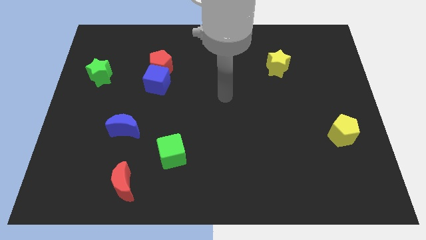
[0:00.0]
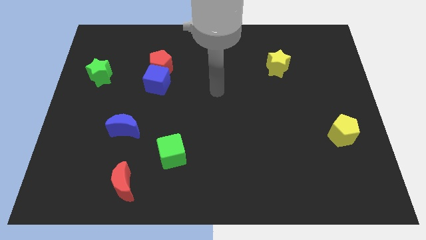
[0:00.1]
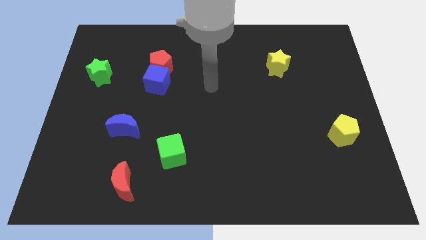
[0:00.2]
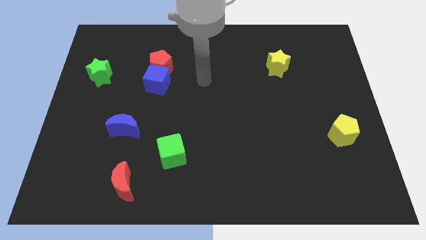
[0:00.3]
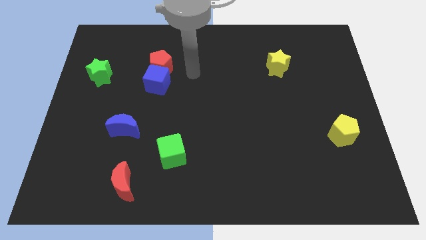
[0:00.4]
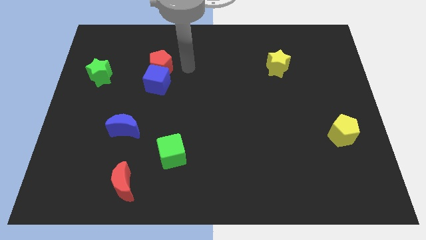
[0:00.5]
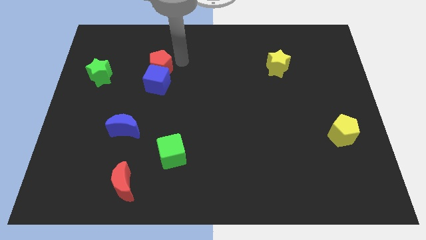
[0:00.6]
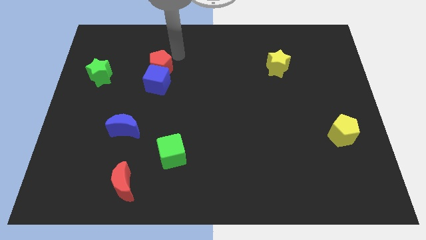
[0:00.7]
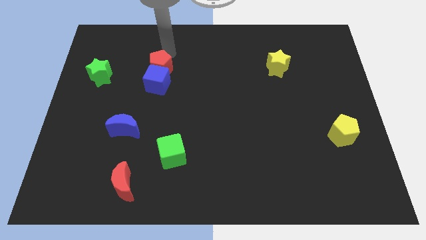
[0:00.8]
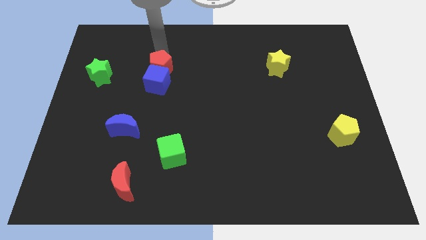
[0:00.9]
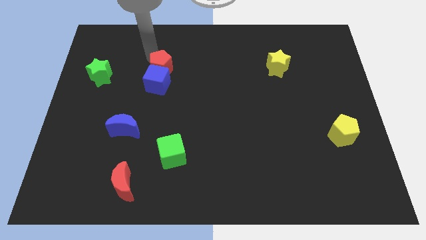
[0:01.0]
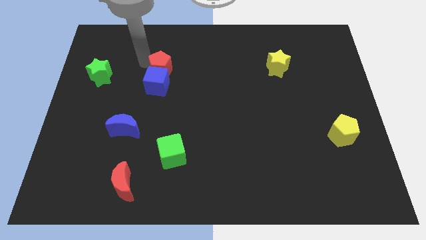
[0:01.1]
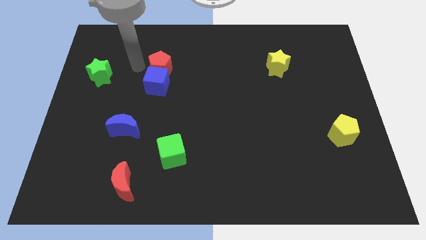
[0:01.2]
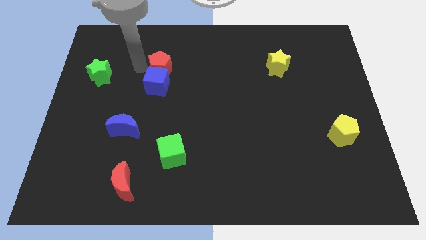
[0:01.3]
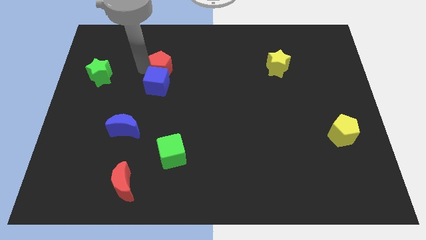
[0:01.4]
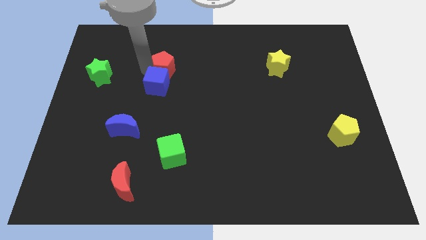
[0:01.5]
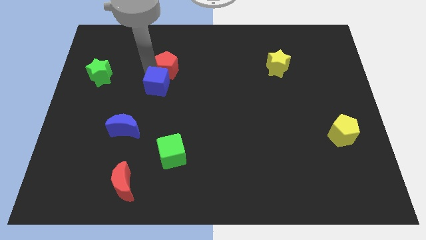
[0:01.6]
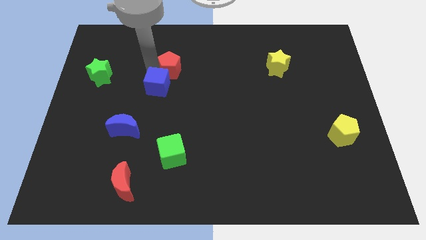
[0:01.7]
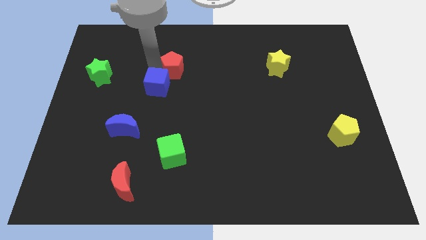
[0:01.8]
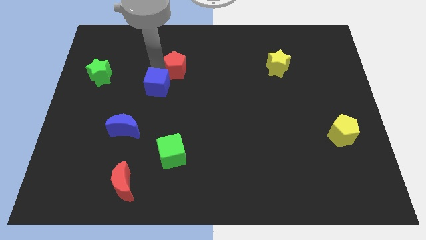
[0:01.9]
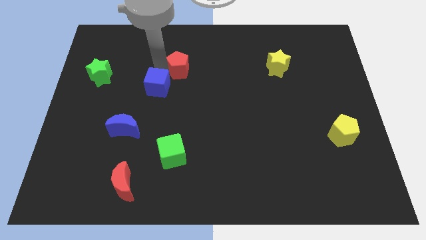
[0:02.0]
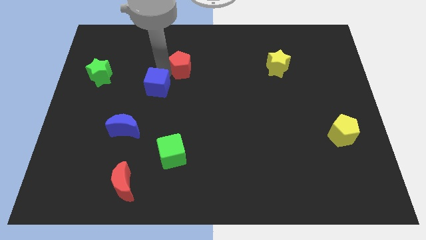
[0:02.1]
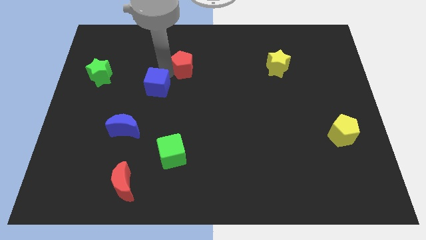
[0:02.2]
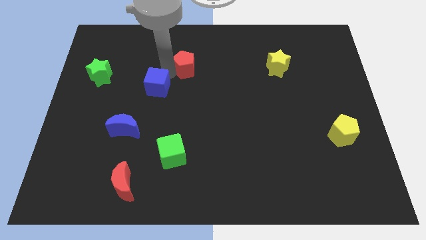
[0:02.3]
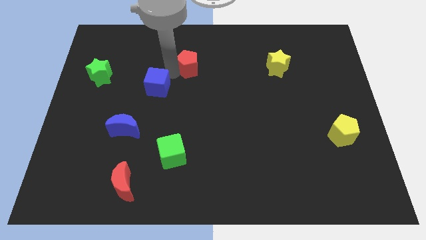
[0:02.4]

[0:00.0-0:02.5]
slightly move the red pentagon to the right

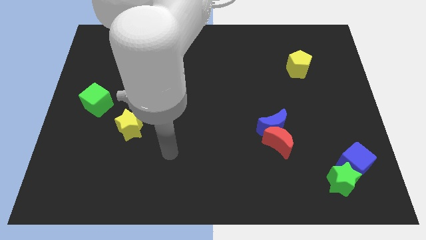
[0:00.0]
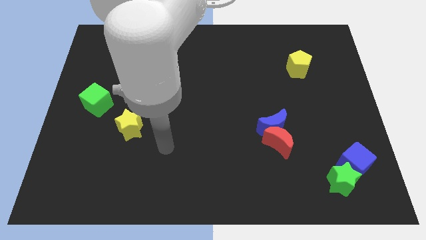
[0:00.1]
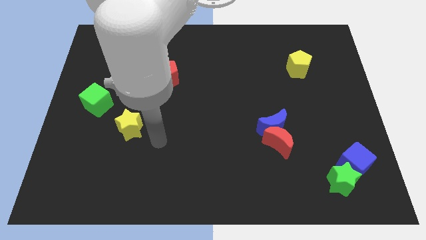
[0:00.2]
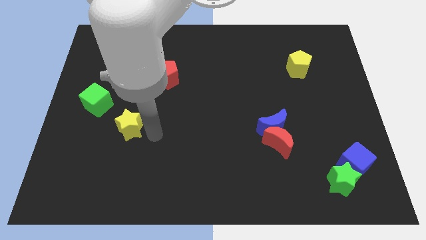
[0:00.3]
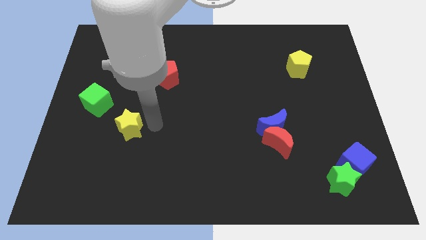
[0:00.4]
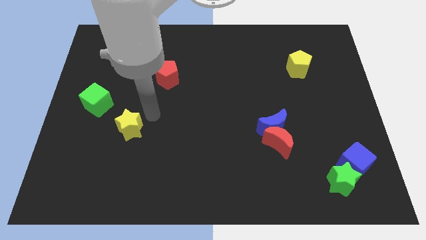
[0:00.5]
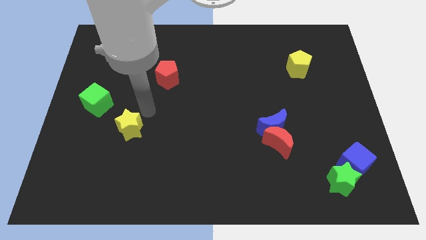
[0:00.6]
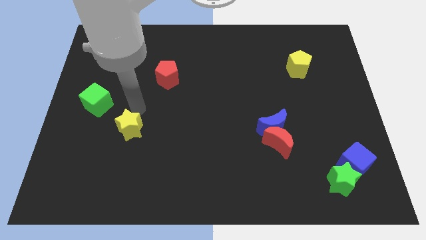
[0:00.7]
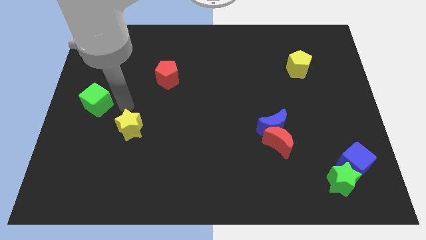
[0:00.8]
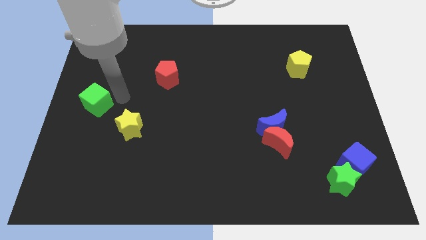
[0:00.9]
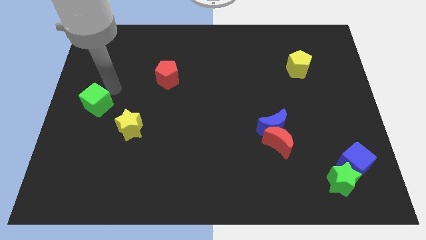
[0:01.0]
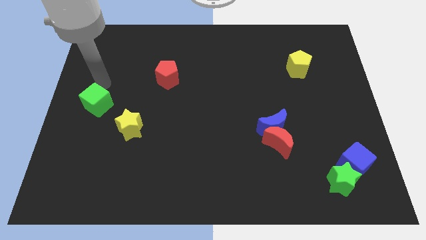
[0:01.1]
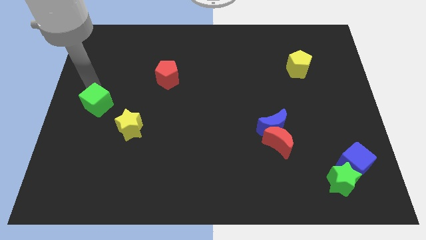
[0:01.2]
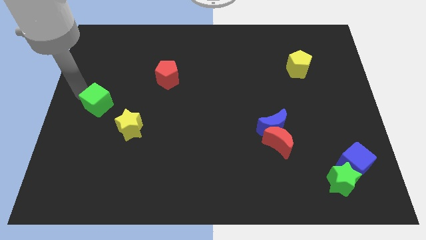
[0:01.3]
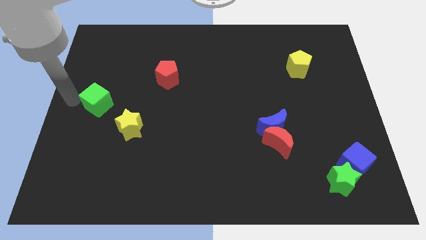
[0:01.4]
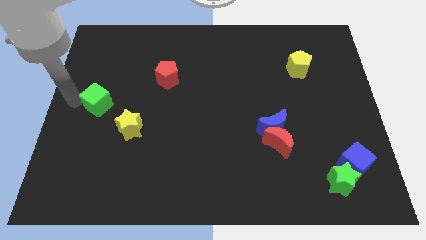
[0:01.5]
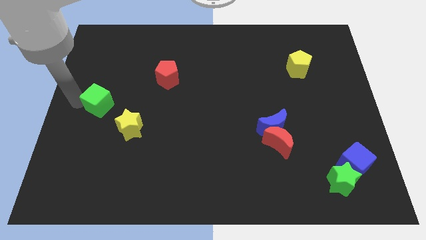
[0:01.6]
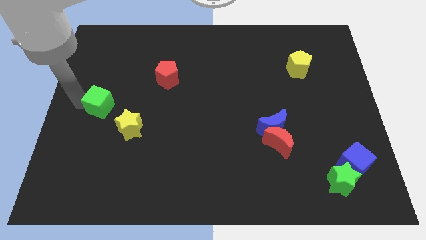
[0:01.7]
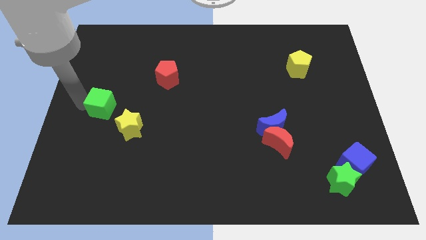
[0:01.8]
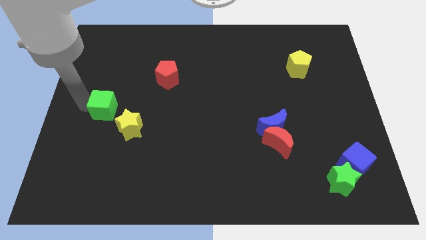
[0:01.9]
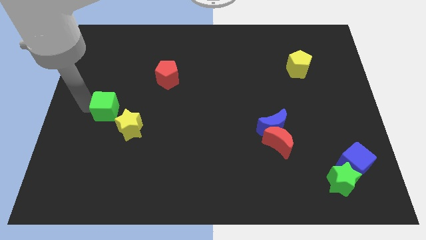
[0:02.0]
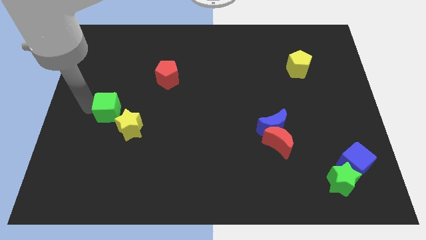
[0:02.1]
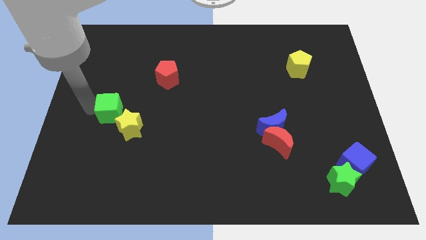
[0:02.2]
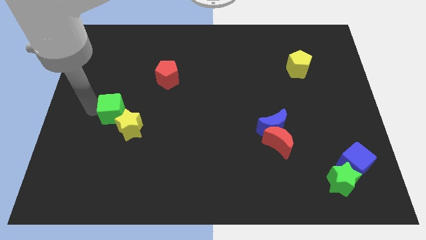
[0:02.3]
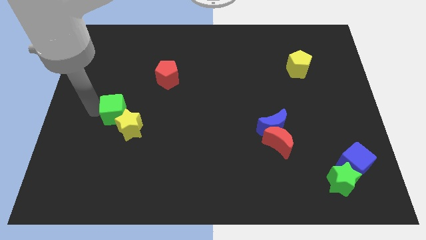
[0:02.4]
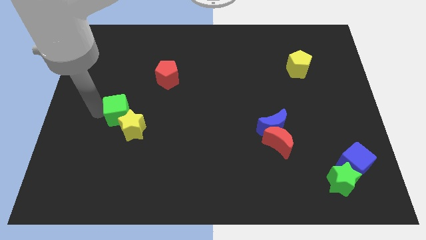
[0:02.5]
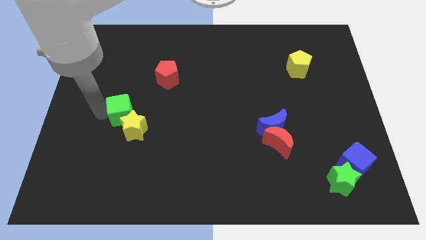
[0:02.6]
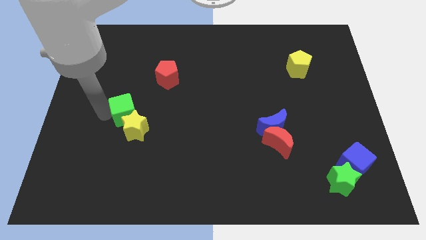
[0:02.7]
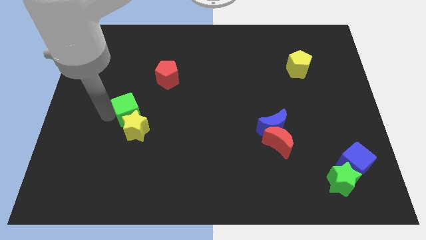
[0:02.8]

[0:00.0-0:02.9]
push the green cube right a little bit

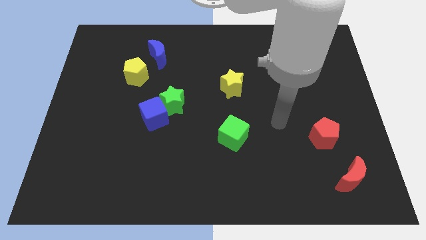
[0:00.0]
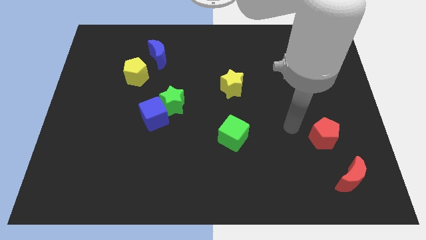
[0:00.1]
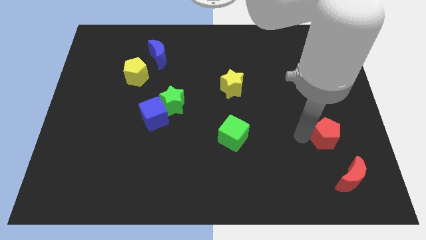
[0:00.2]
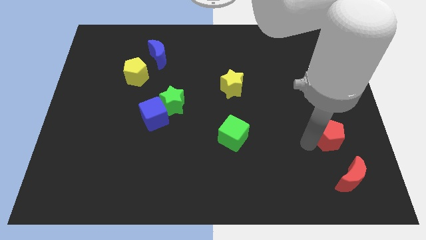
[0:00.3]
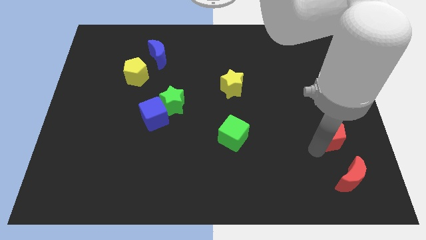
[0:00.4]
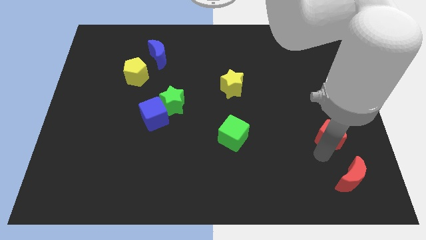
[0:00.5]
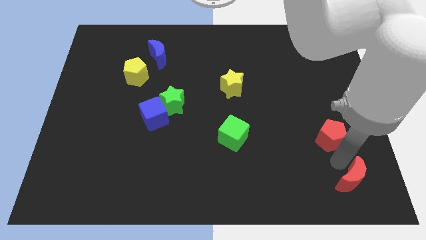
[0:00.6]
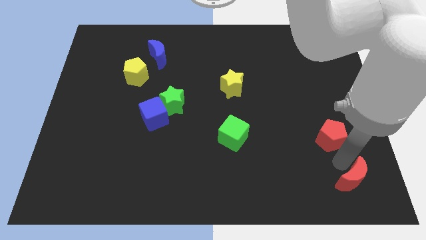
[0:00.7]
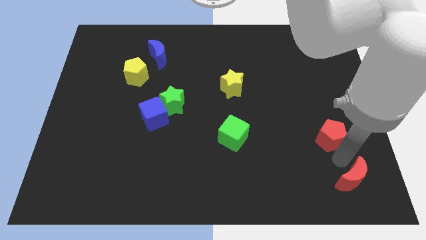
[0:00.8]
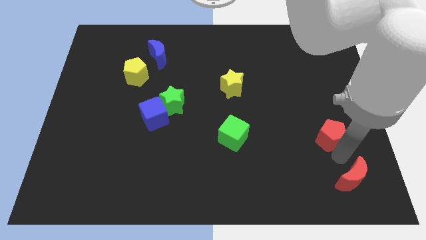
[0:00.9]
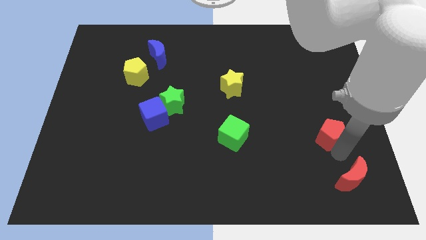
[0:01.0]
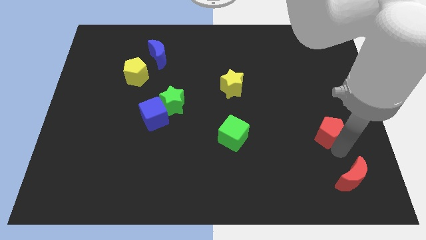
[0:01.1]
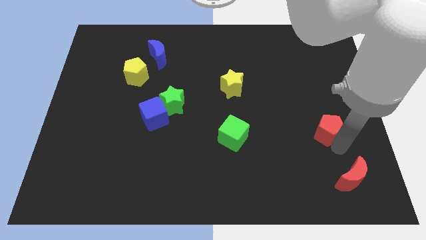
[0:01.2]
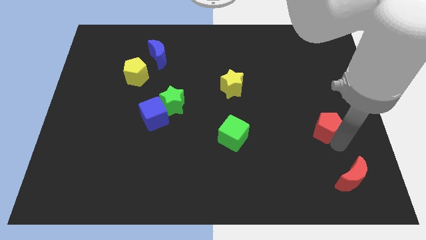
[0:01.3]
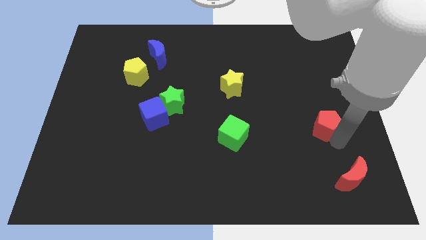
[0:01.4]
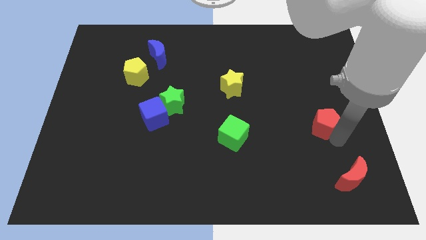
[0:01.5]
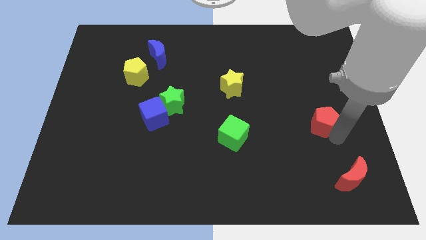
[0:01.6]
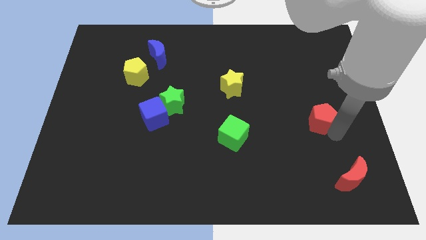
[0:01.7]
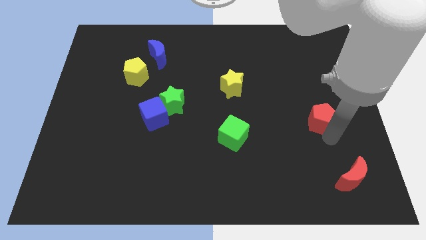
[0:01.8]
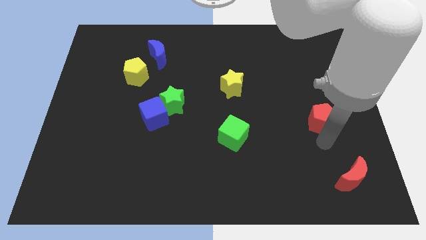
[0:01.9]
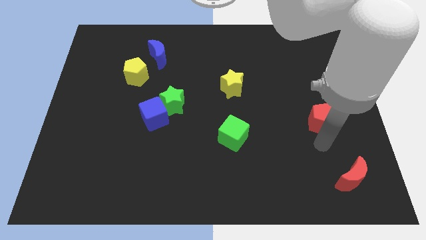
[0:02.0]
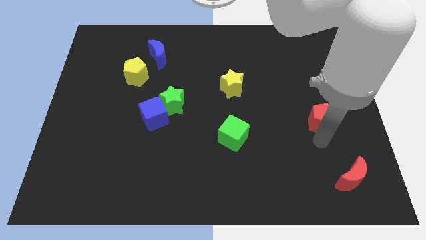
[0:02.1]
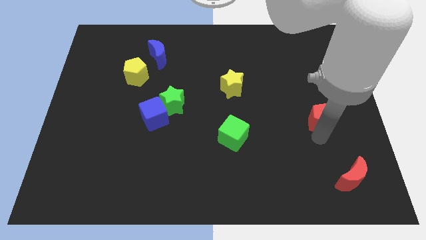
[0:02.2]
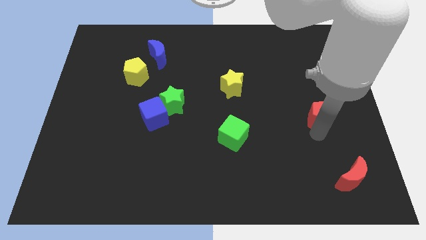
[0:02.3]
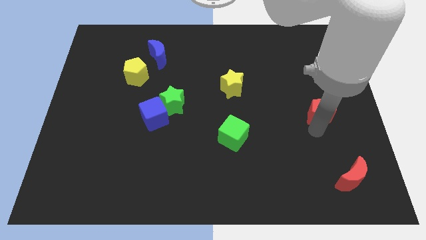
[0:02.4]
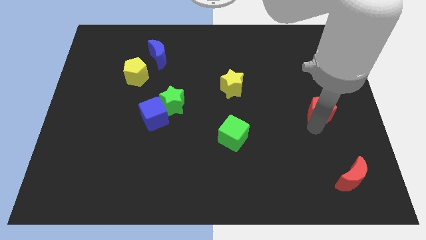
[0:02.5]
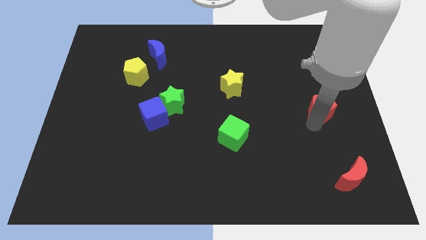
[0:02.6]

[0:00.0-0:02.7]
slide the red pentagon a bit up
